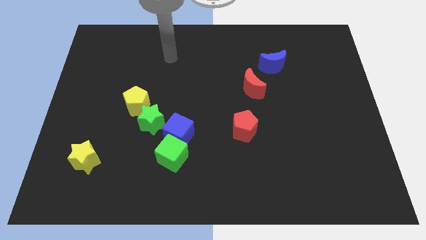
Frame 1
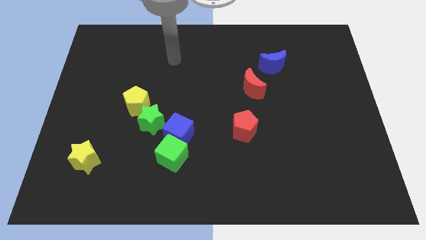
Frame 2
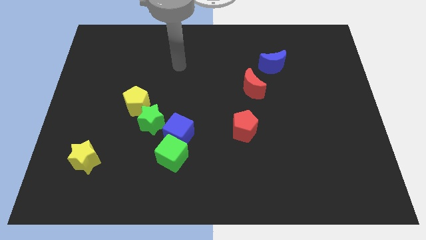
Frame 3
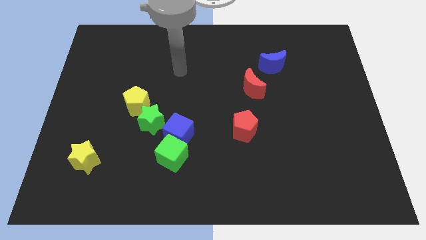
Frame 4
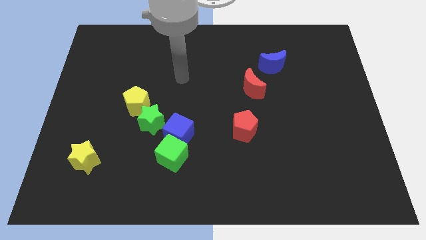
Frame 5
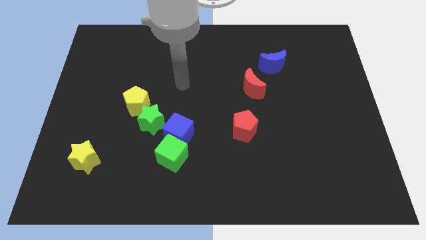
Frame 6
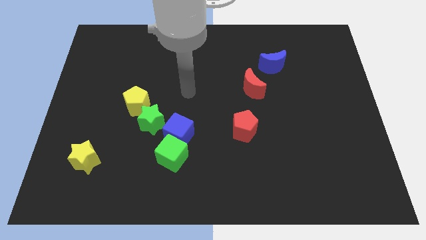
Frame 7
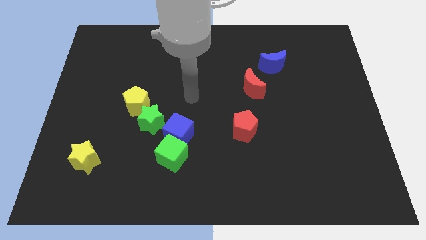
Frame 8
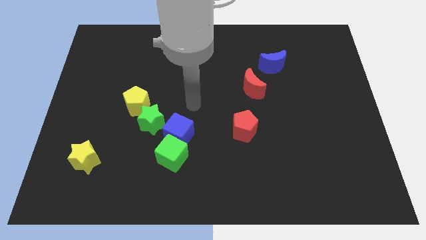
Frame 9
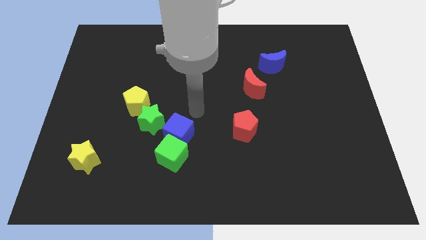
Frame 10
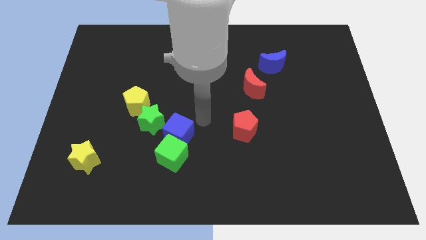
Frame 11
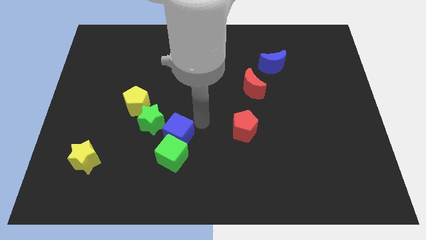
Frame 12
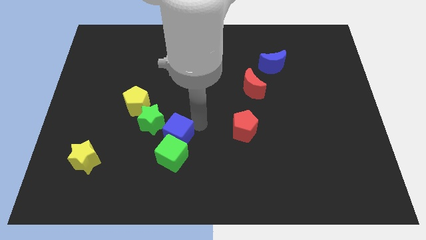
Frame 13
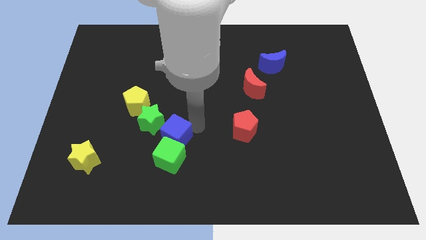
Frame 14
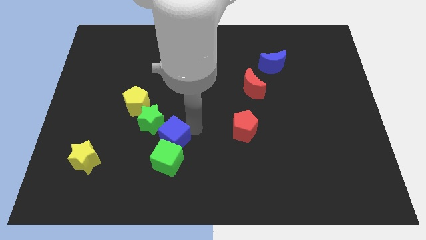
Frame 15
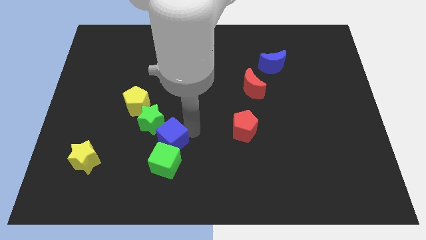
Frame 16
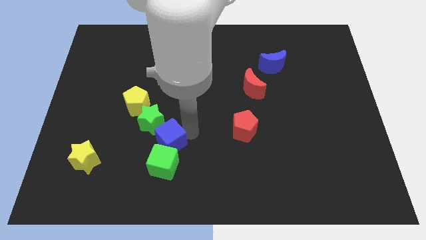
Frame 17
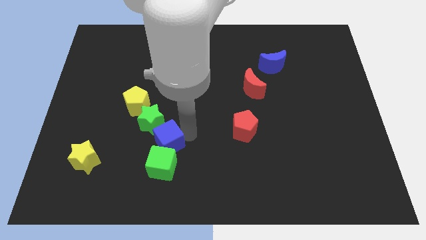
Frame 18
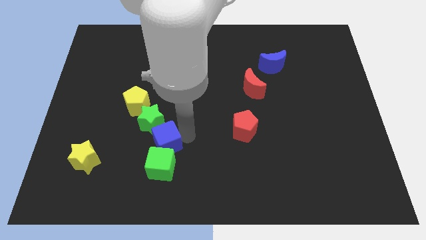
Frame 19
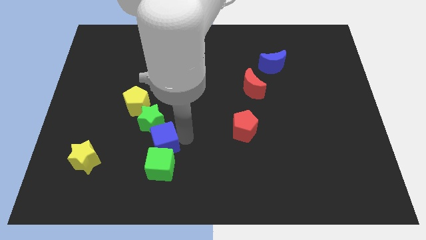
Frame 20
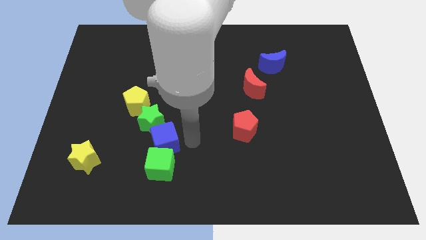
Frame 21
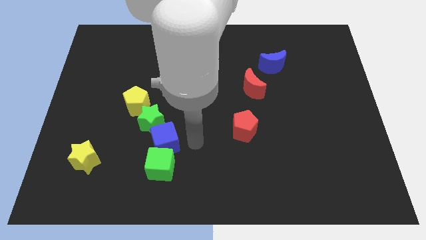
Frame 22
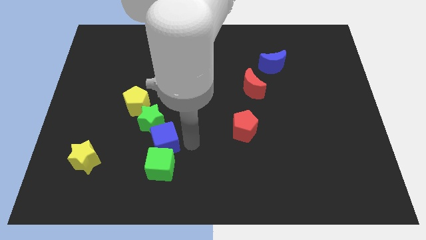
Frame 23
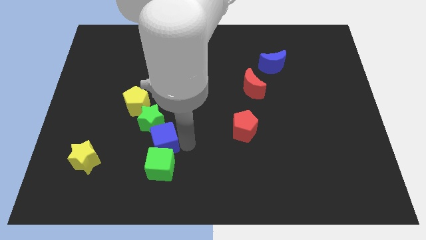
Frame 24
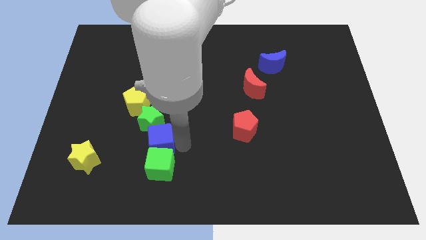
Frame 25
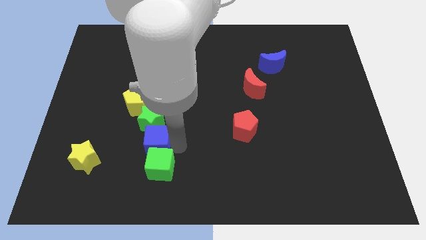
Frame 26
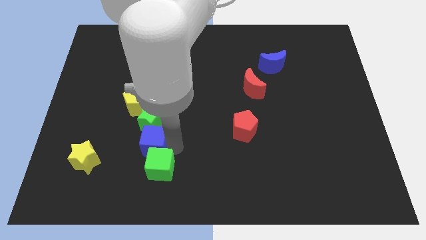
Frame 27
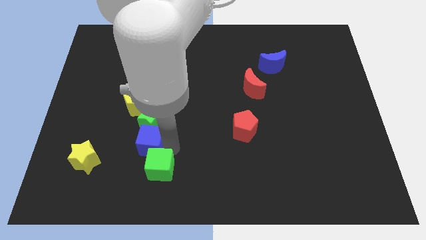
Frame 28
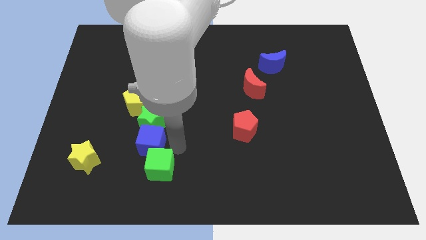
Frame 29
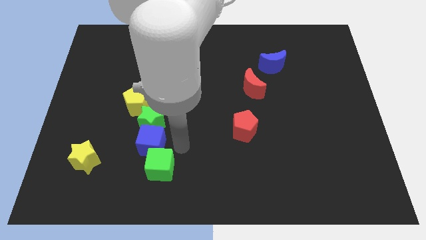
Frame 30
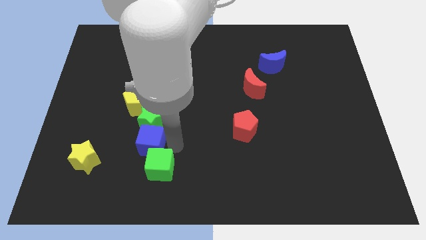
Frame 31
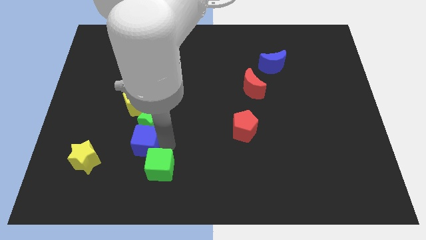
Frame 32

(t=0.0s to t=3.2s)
push the blue cube a little bit to the left

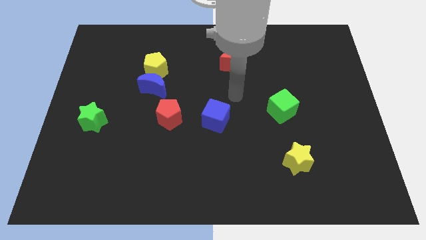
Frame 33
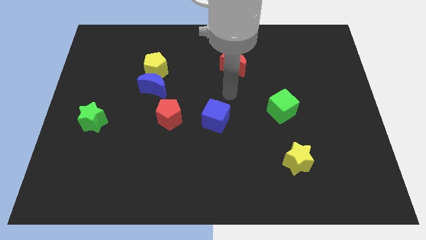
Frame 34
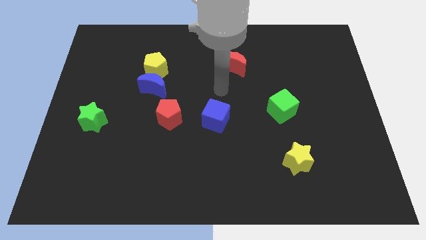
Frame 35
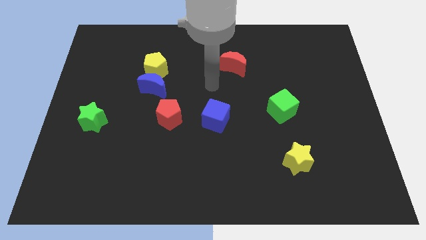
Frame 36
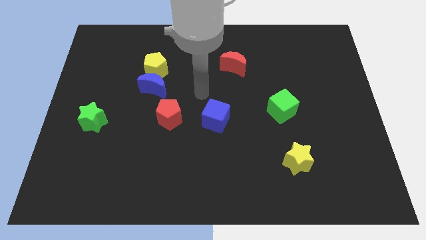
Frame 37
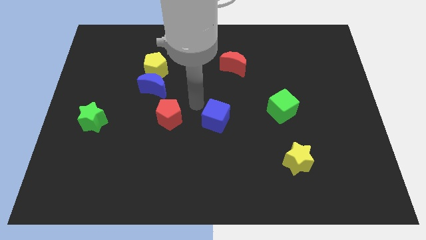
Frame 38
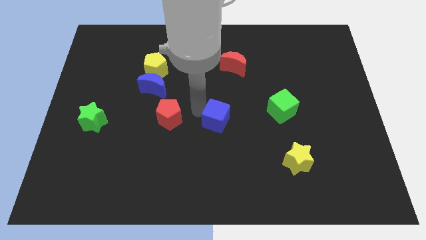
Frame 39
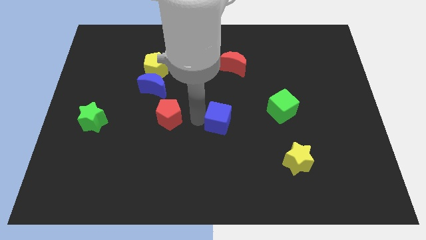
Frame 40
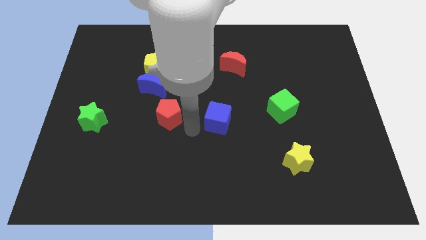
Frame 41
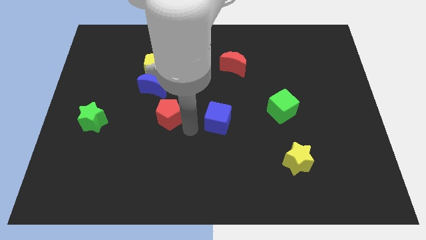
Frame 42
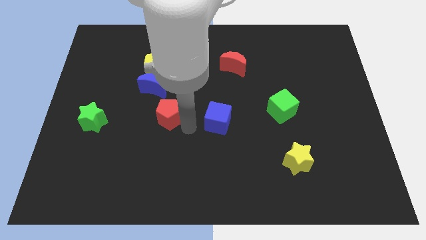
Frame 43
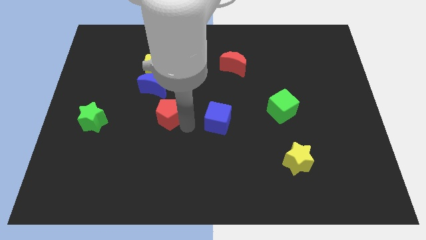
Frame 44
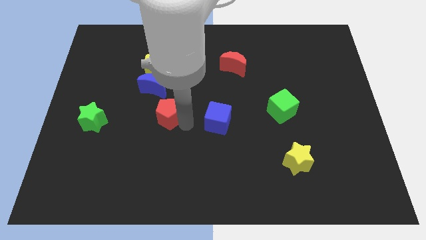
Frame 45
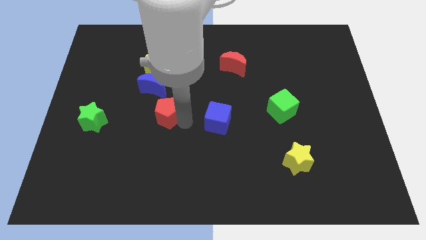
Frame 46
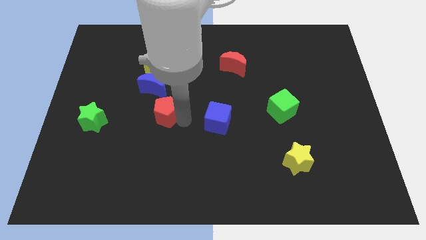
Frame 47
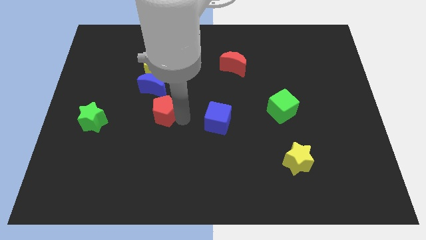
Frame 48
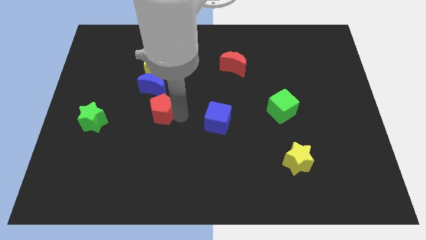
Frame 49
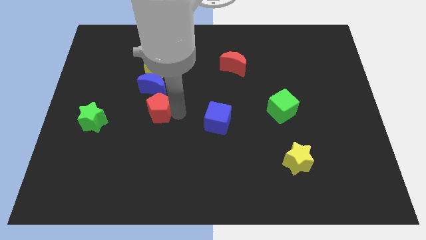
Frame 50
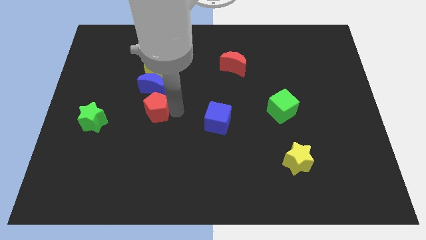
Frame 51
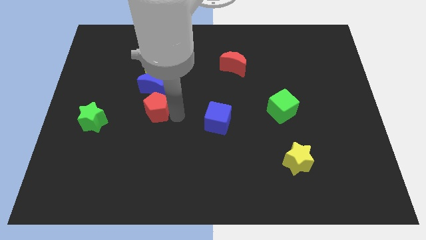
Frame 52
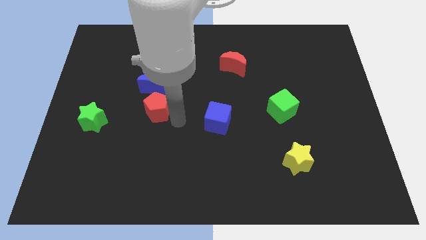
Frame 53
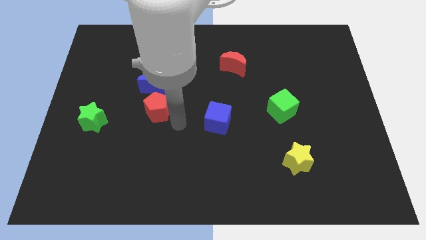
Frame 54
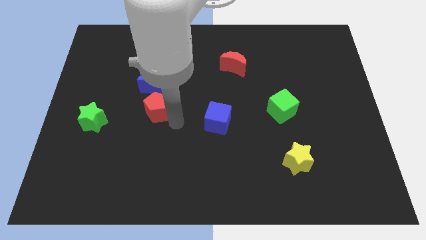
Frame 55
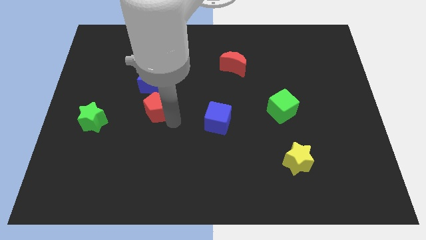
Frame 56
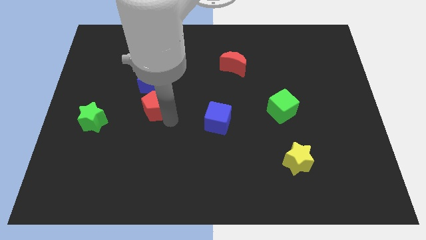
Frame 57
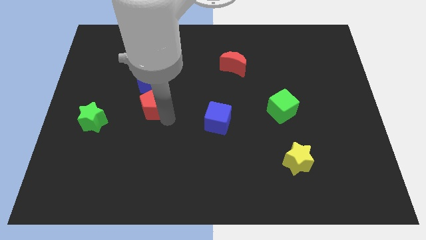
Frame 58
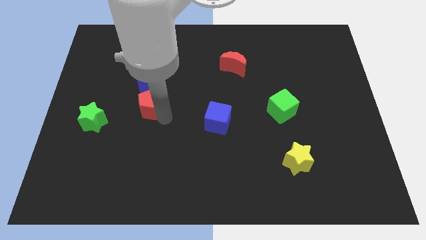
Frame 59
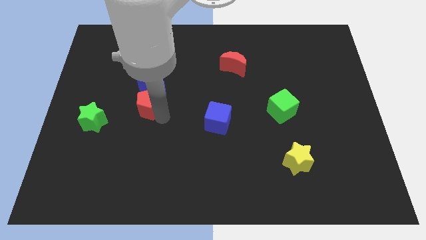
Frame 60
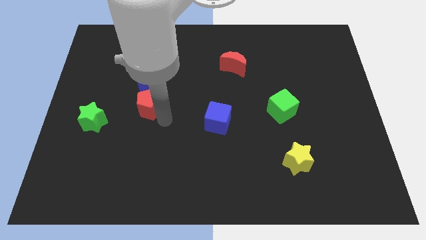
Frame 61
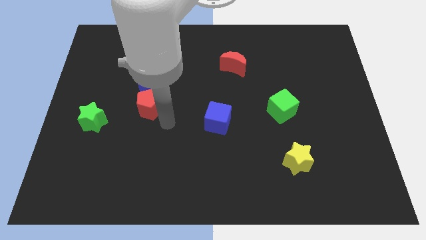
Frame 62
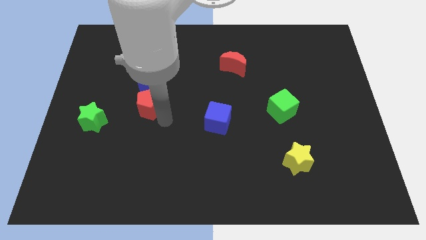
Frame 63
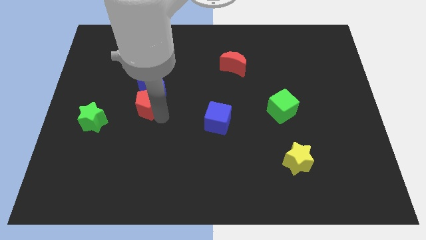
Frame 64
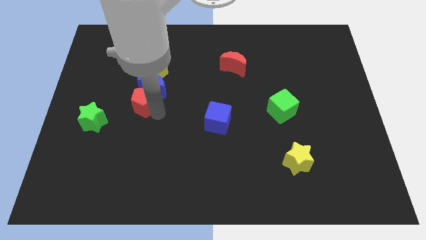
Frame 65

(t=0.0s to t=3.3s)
push the red pentagon slightly upwards and then to the left

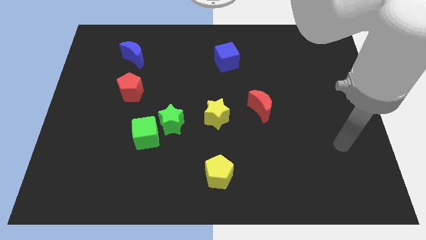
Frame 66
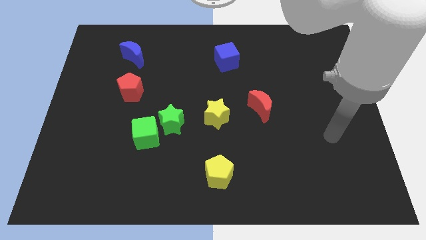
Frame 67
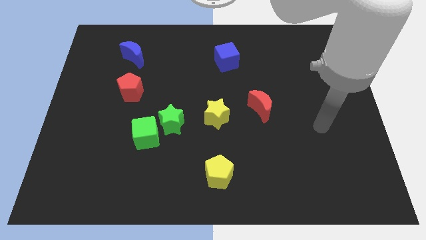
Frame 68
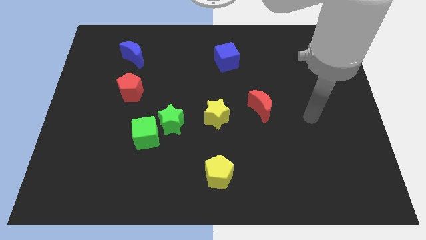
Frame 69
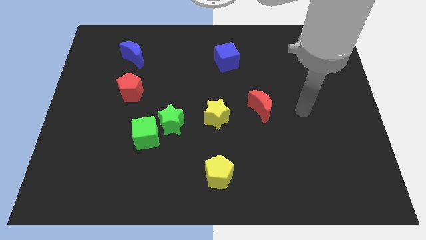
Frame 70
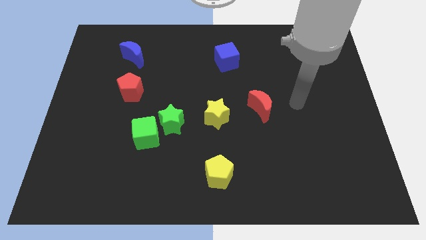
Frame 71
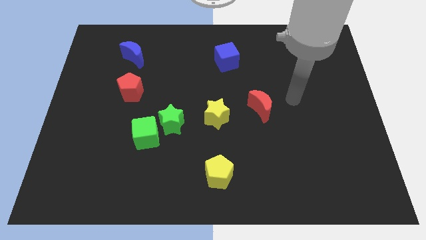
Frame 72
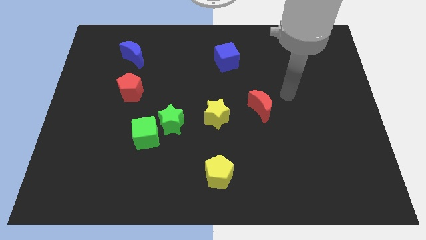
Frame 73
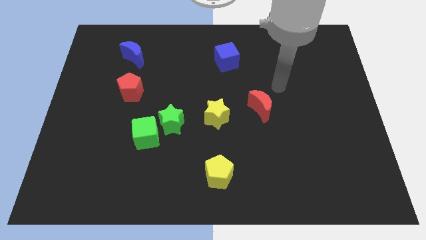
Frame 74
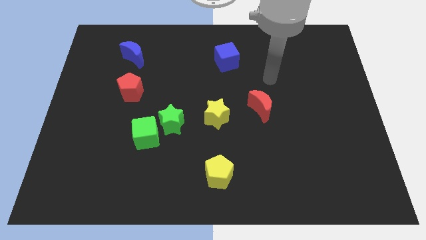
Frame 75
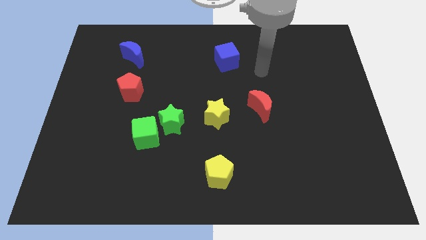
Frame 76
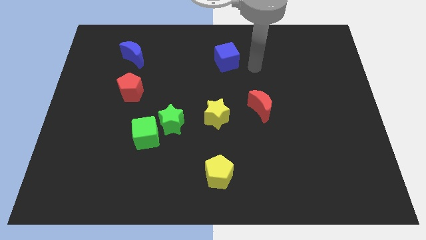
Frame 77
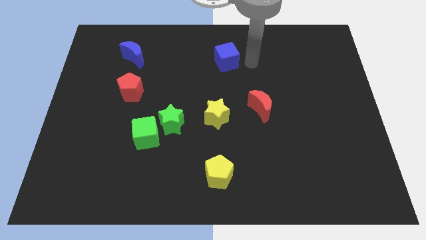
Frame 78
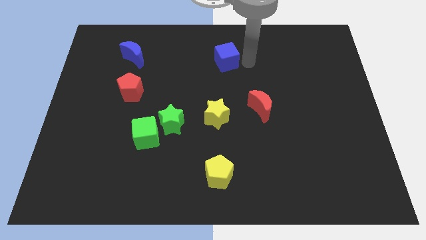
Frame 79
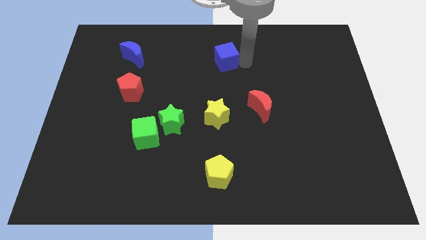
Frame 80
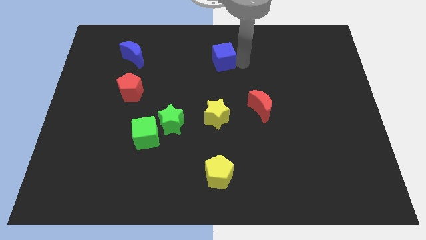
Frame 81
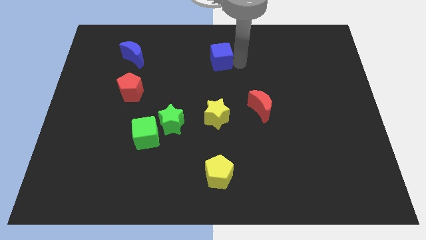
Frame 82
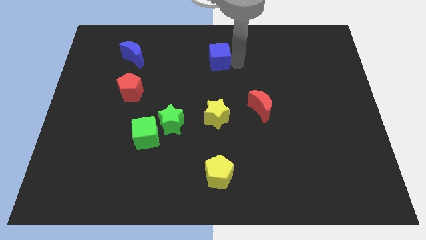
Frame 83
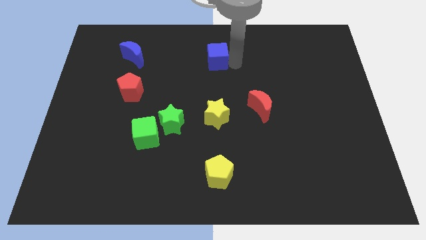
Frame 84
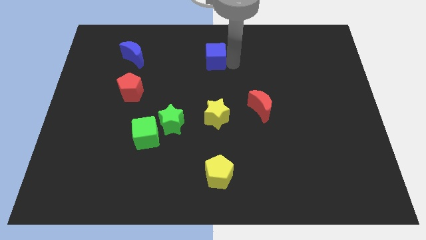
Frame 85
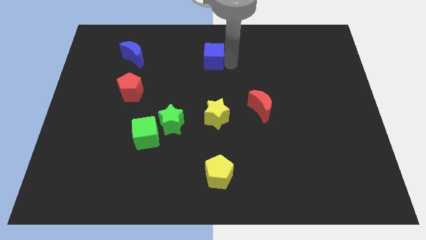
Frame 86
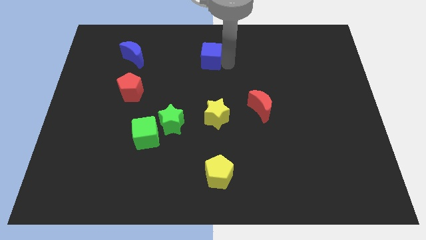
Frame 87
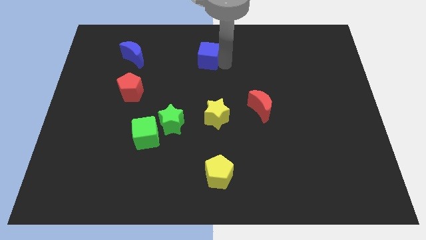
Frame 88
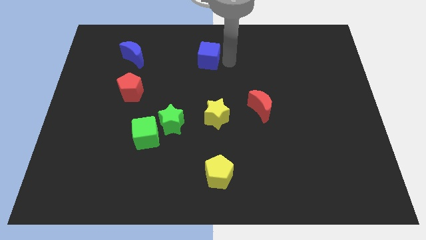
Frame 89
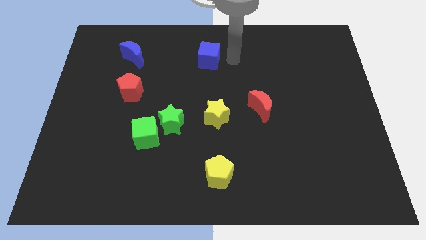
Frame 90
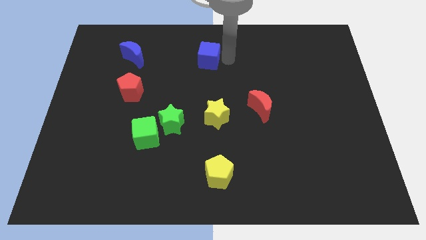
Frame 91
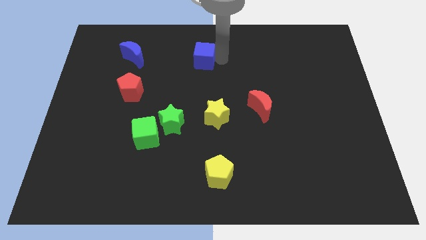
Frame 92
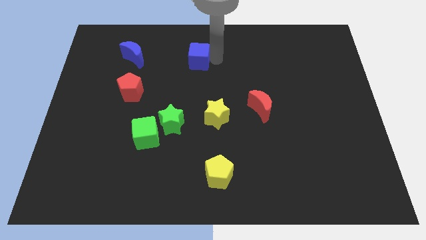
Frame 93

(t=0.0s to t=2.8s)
move the blue cube to the left a bit
